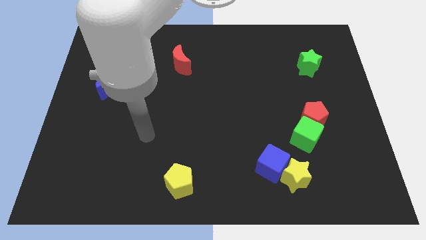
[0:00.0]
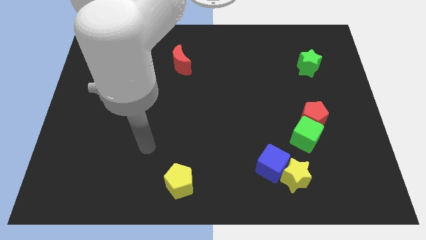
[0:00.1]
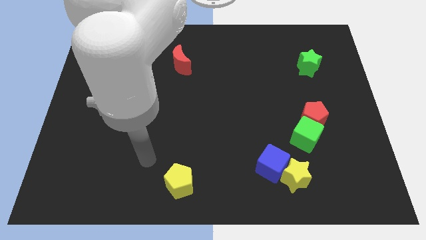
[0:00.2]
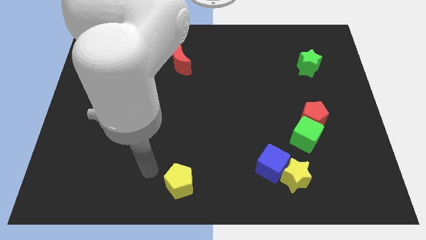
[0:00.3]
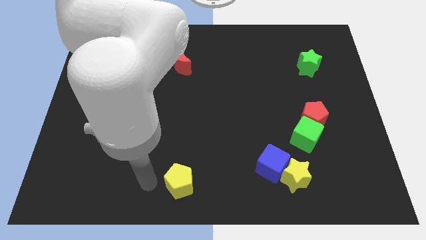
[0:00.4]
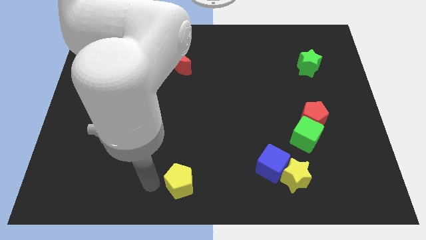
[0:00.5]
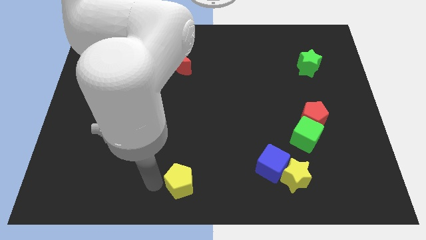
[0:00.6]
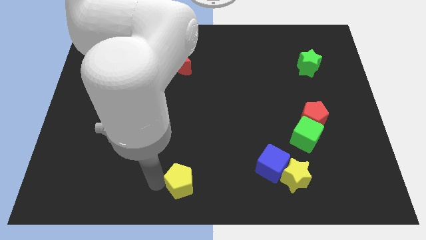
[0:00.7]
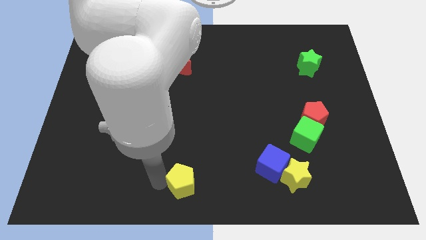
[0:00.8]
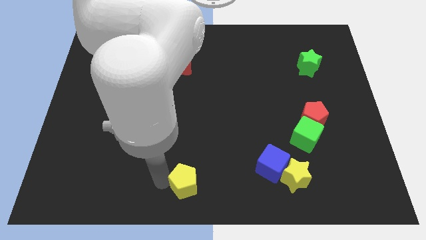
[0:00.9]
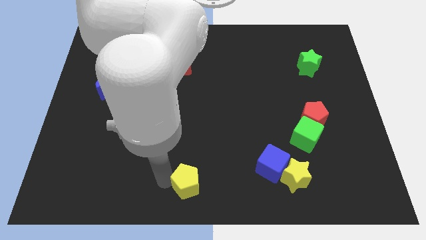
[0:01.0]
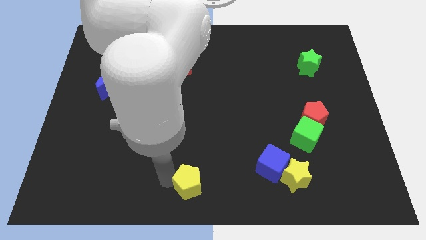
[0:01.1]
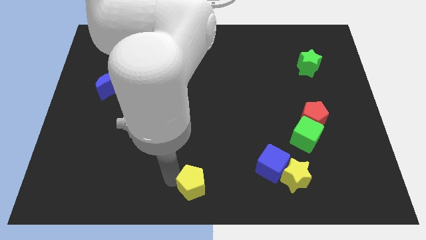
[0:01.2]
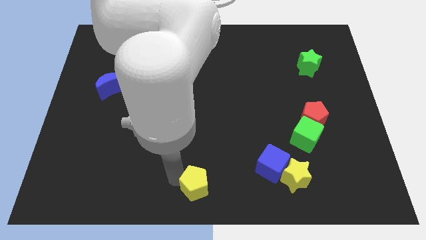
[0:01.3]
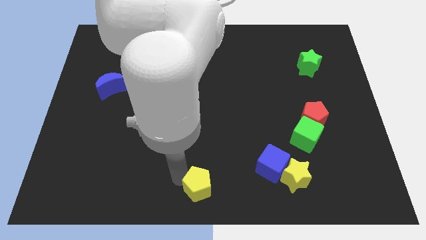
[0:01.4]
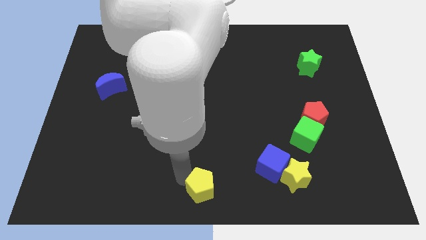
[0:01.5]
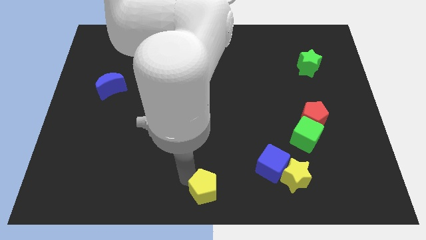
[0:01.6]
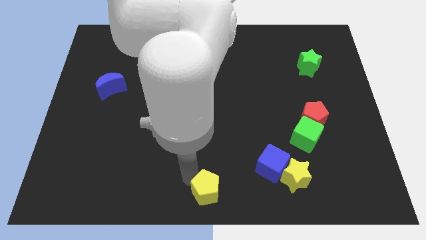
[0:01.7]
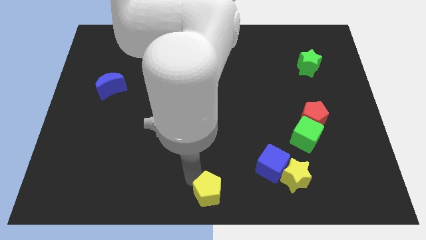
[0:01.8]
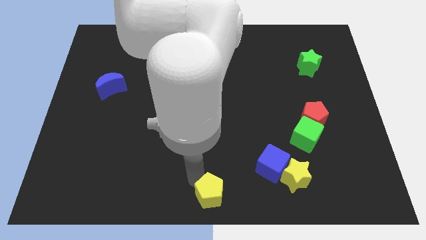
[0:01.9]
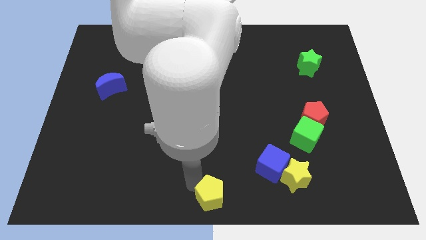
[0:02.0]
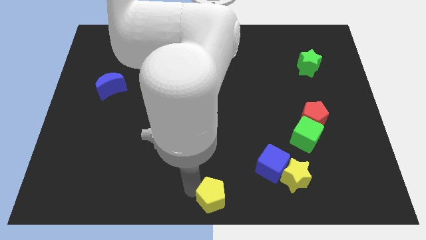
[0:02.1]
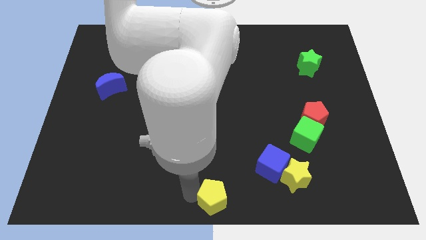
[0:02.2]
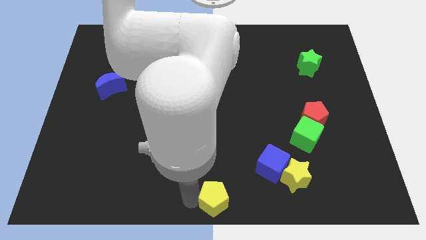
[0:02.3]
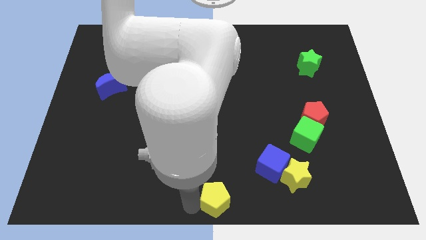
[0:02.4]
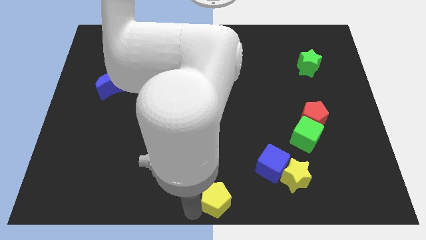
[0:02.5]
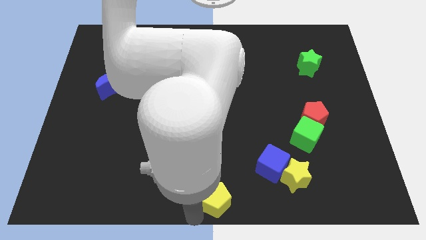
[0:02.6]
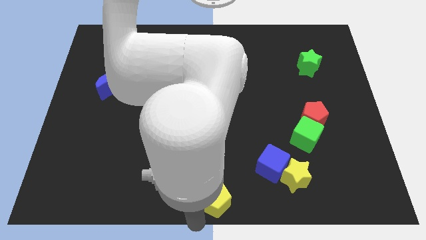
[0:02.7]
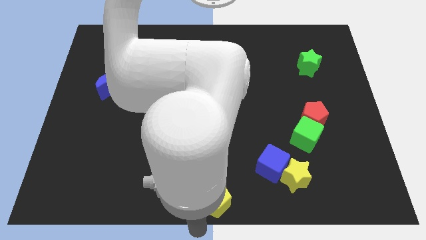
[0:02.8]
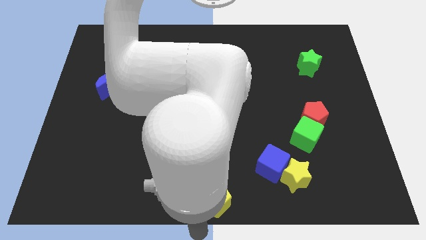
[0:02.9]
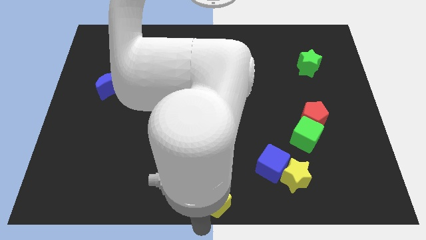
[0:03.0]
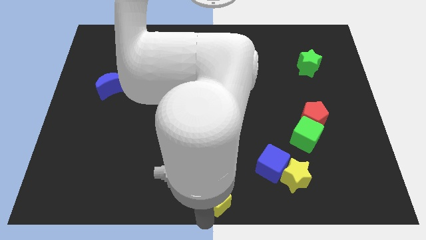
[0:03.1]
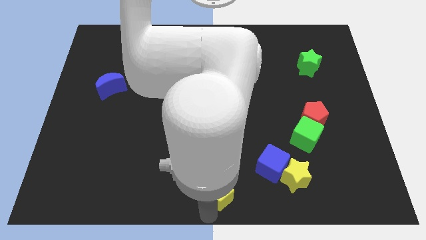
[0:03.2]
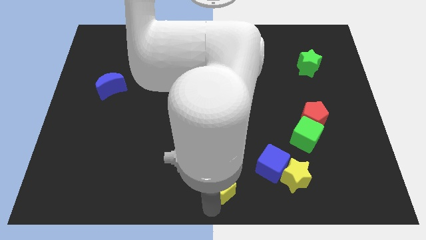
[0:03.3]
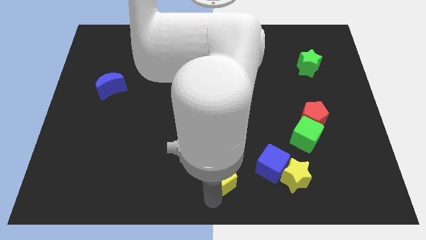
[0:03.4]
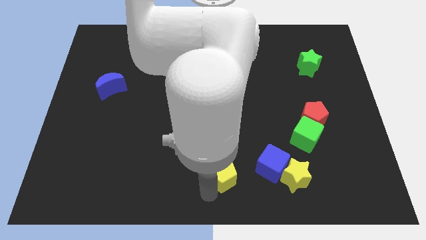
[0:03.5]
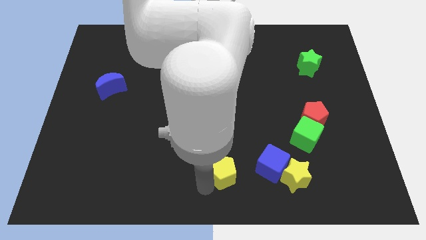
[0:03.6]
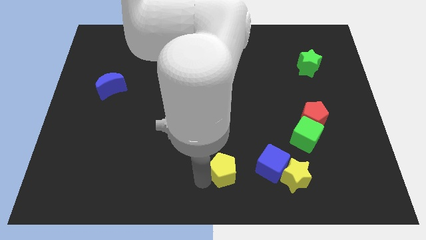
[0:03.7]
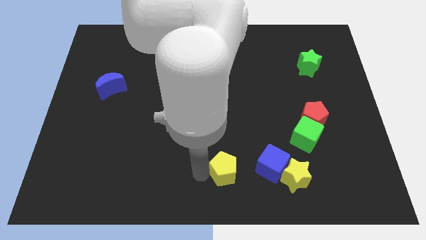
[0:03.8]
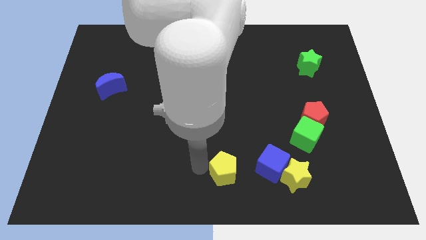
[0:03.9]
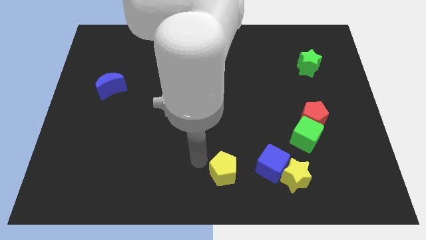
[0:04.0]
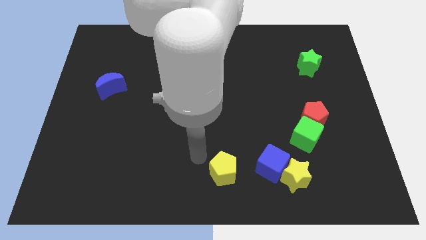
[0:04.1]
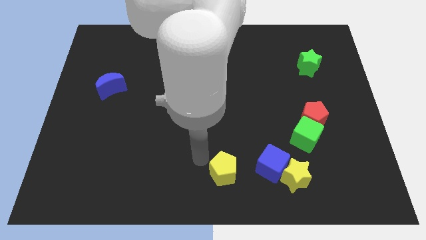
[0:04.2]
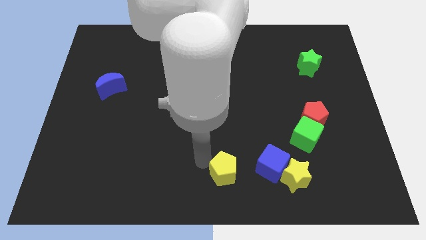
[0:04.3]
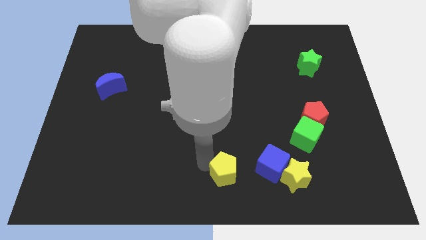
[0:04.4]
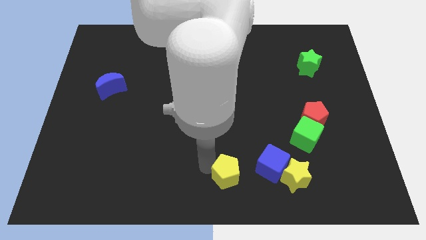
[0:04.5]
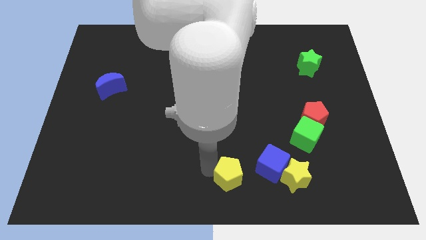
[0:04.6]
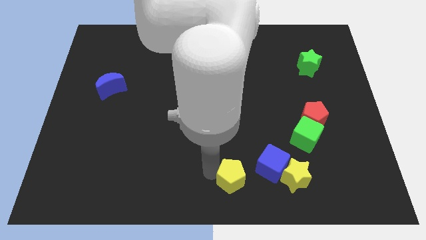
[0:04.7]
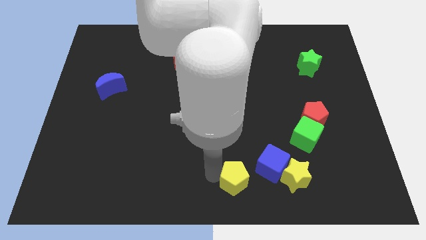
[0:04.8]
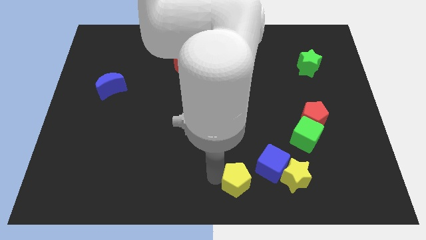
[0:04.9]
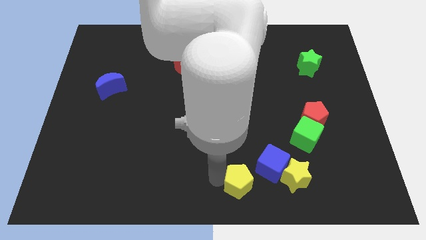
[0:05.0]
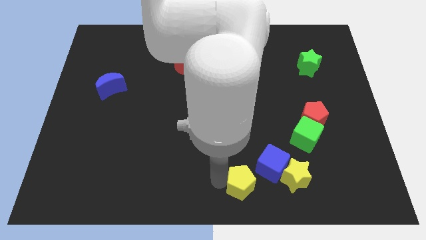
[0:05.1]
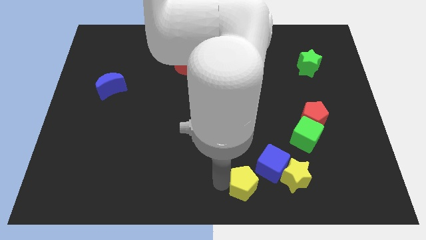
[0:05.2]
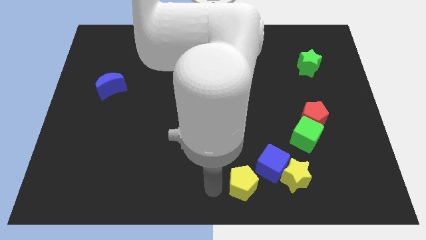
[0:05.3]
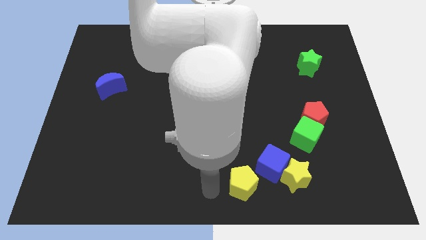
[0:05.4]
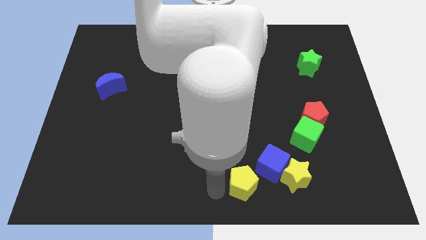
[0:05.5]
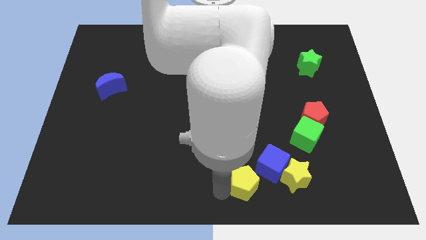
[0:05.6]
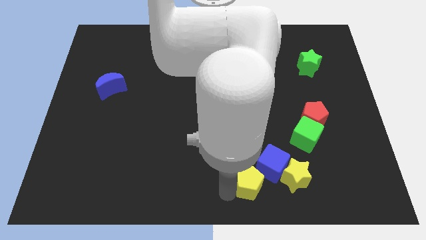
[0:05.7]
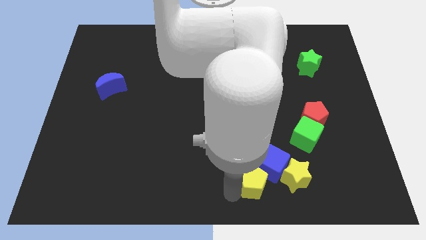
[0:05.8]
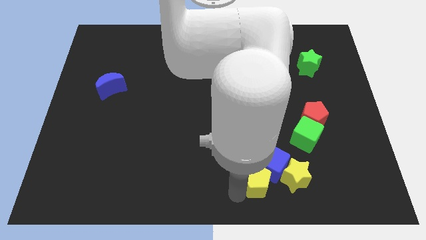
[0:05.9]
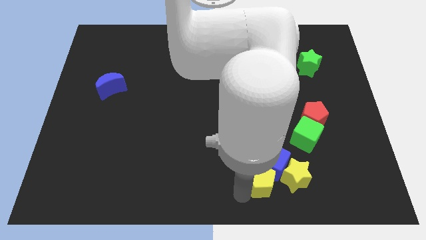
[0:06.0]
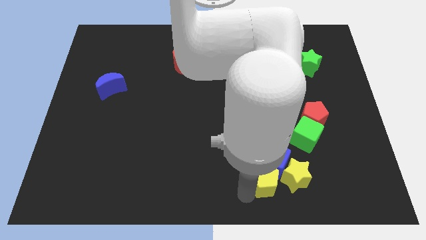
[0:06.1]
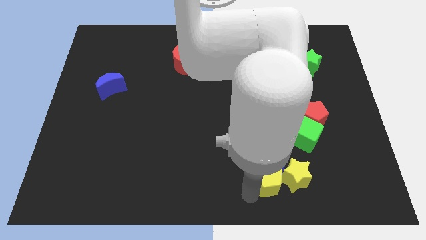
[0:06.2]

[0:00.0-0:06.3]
slide the yellow pentagon next to the yellow star
